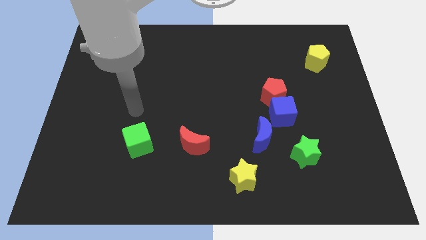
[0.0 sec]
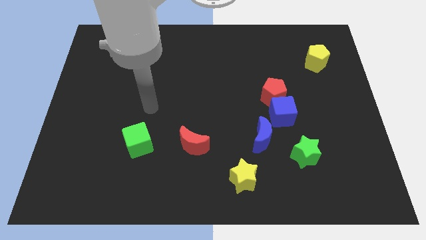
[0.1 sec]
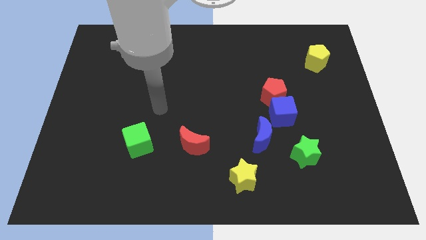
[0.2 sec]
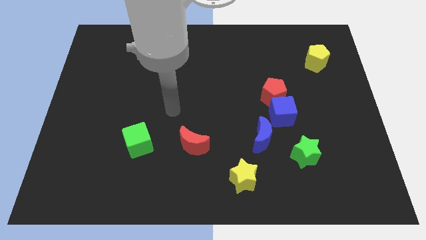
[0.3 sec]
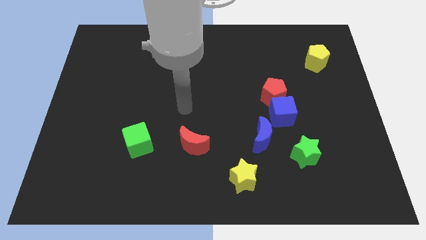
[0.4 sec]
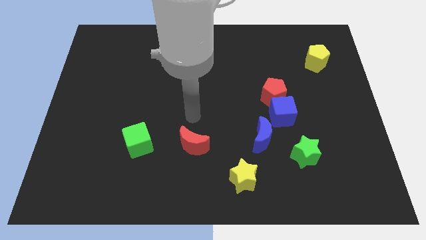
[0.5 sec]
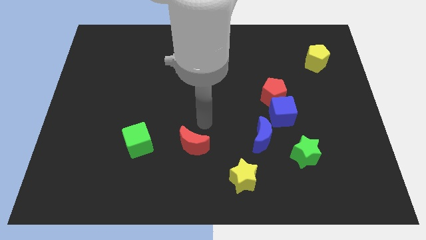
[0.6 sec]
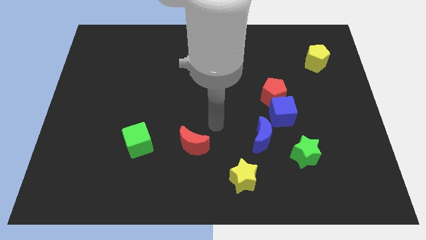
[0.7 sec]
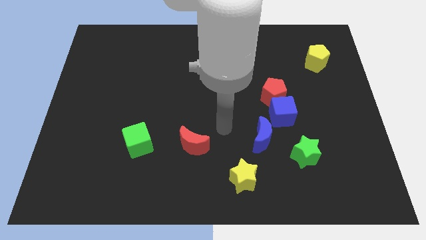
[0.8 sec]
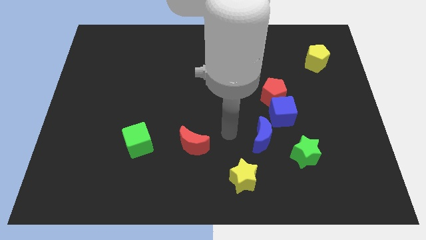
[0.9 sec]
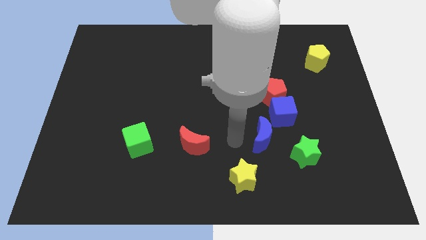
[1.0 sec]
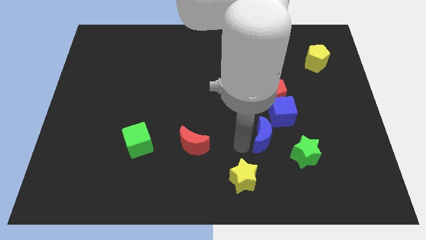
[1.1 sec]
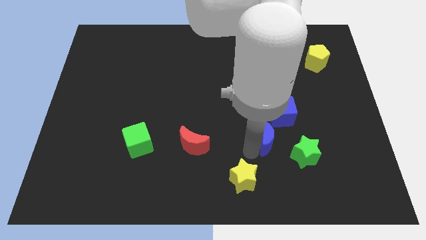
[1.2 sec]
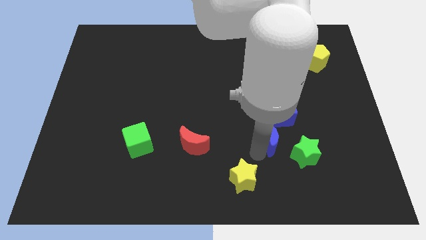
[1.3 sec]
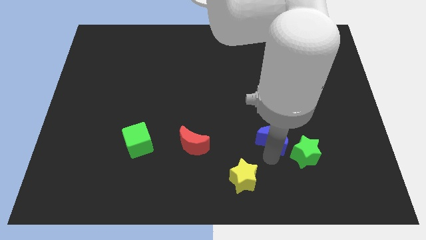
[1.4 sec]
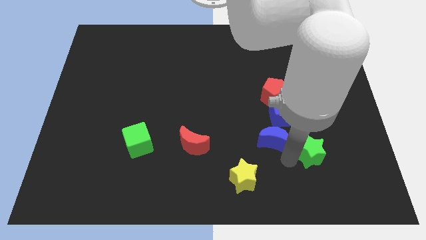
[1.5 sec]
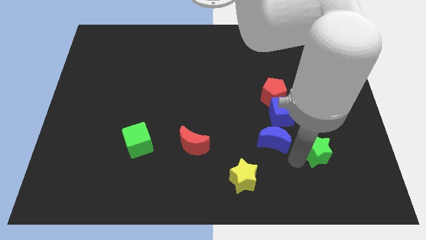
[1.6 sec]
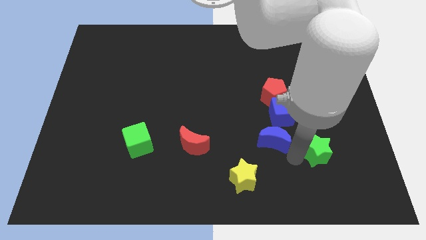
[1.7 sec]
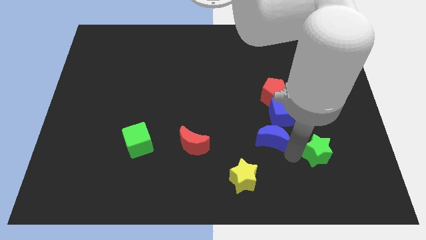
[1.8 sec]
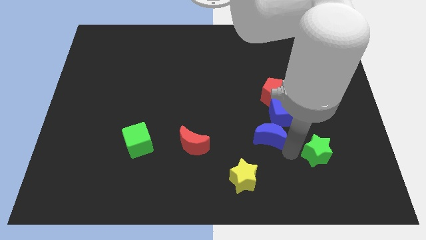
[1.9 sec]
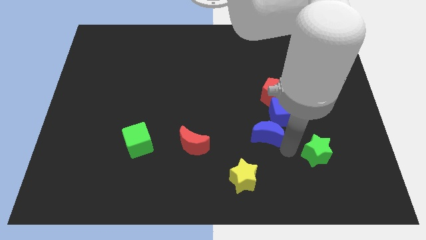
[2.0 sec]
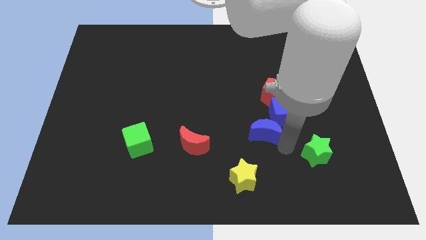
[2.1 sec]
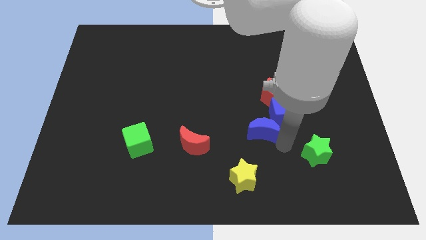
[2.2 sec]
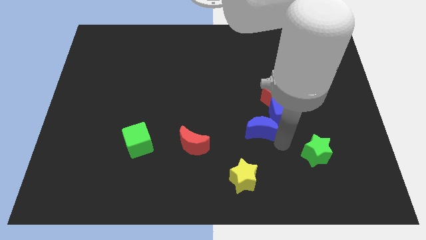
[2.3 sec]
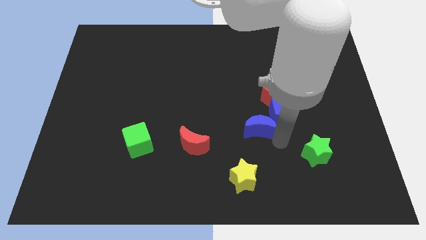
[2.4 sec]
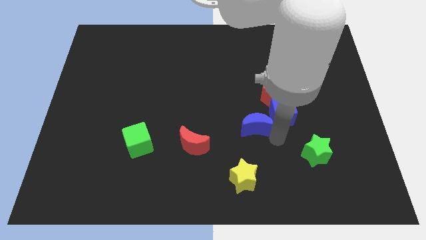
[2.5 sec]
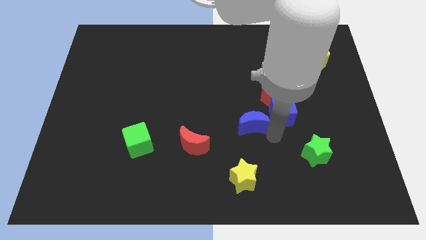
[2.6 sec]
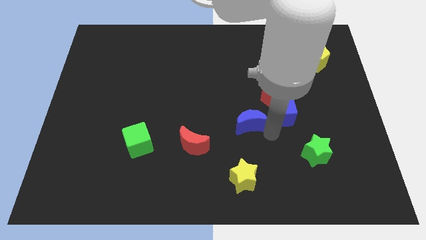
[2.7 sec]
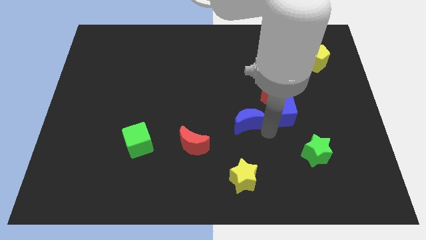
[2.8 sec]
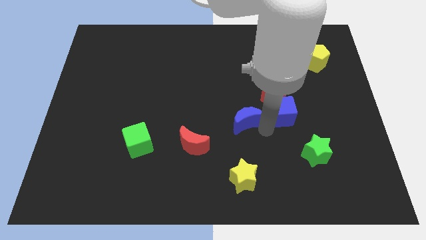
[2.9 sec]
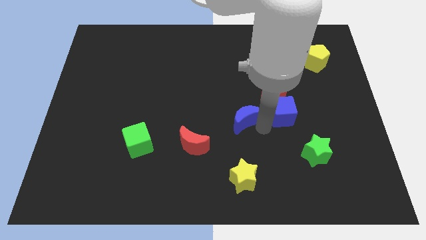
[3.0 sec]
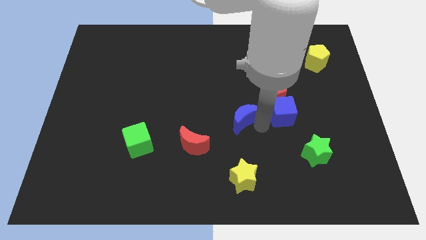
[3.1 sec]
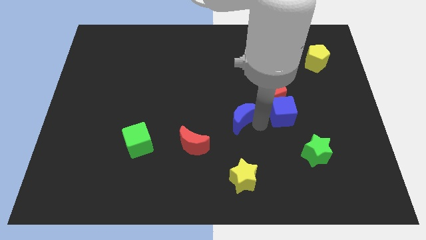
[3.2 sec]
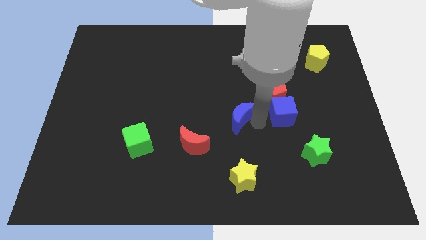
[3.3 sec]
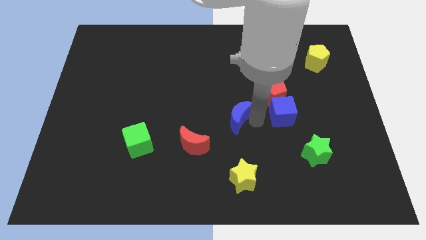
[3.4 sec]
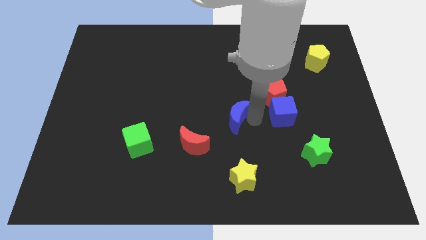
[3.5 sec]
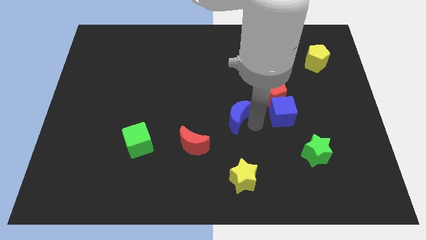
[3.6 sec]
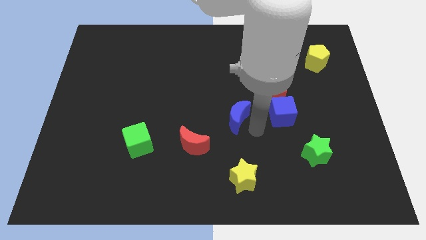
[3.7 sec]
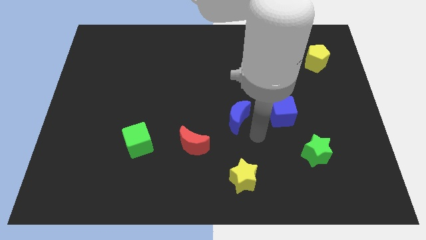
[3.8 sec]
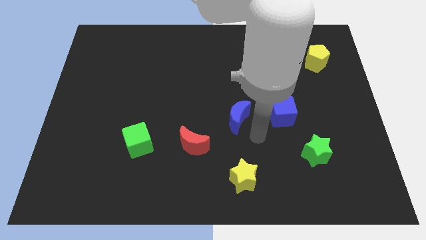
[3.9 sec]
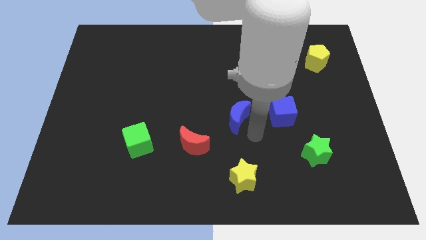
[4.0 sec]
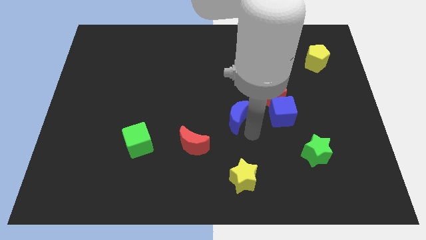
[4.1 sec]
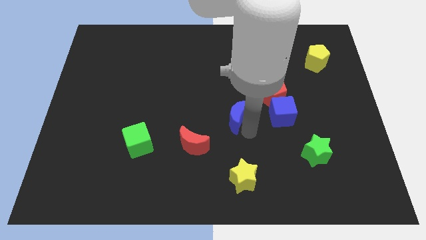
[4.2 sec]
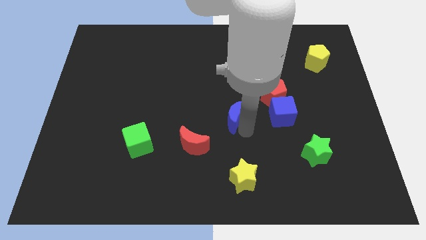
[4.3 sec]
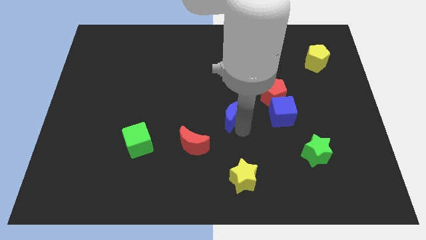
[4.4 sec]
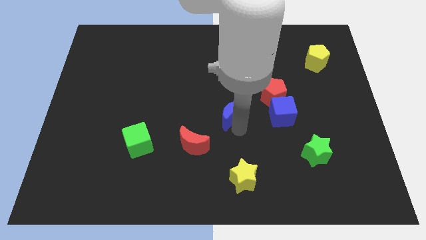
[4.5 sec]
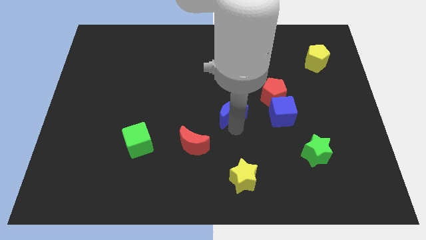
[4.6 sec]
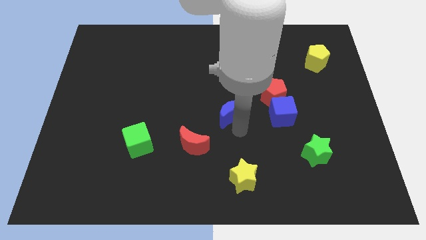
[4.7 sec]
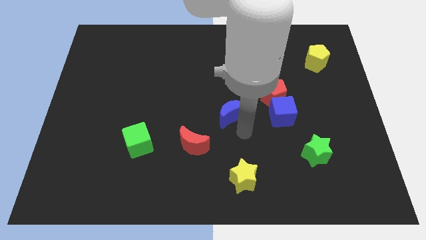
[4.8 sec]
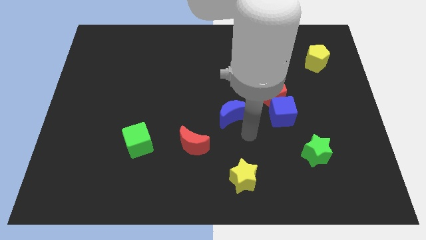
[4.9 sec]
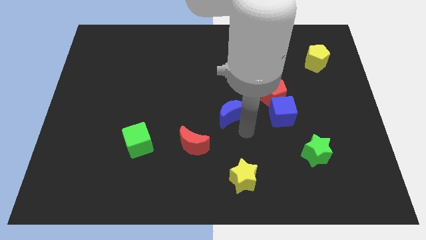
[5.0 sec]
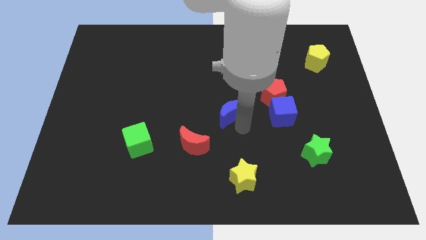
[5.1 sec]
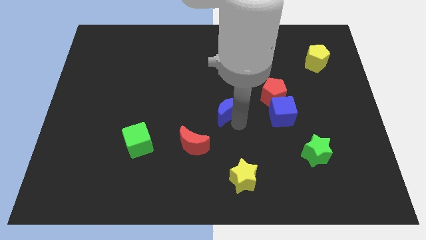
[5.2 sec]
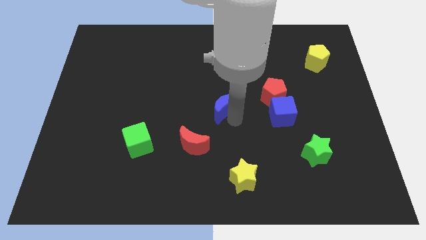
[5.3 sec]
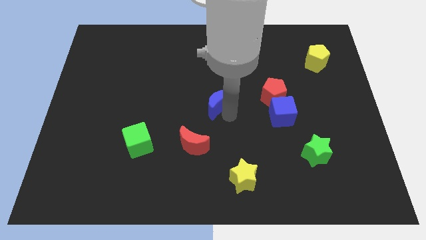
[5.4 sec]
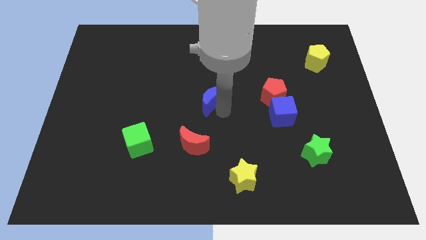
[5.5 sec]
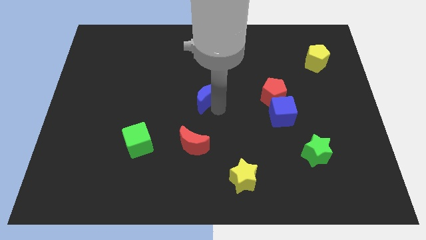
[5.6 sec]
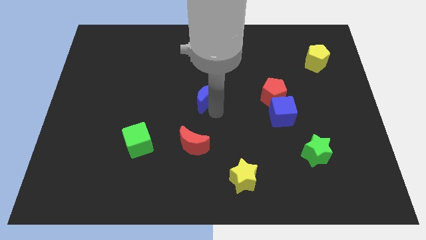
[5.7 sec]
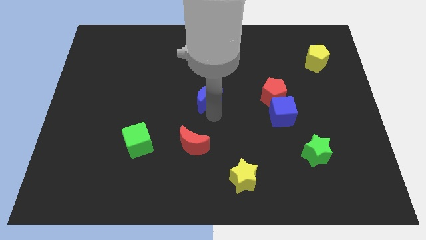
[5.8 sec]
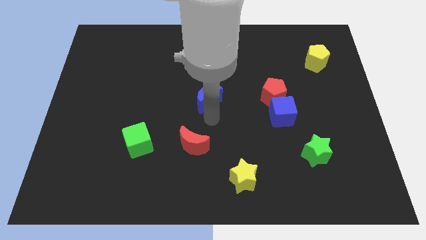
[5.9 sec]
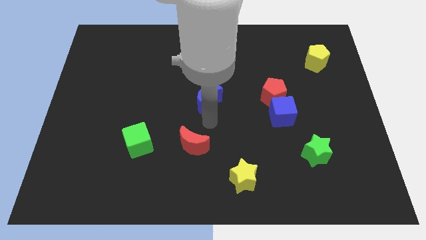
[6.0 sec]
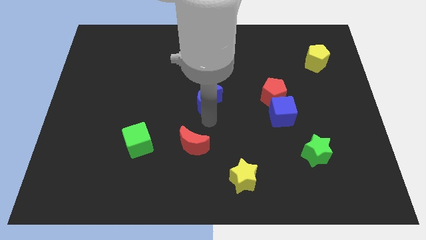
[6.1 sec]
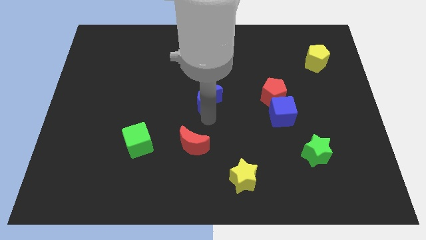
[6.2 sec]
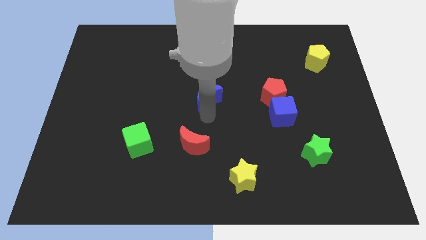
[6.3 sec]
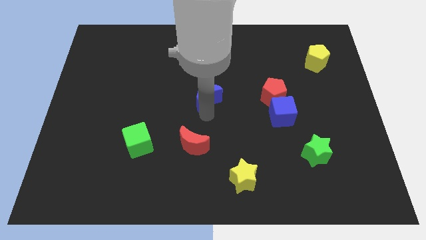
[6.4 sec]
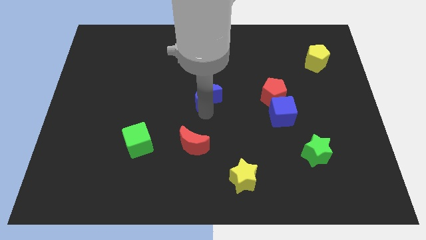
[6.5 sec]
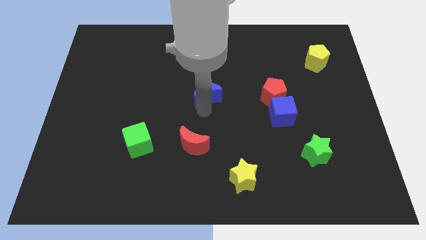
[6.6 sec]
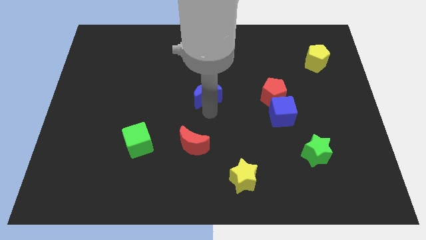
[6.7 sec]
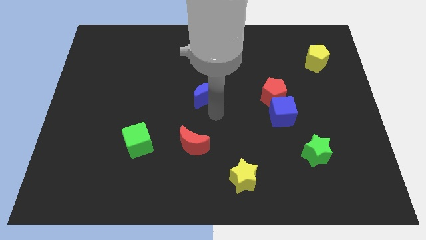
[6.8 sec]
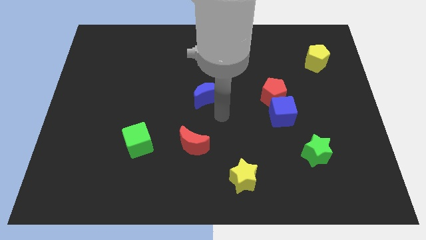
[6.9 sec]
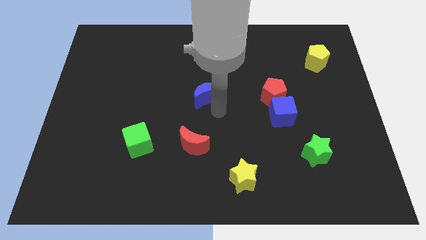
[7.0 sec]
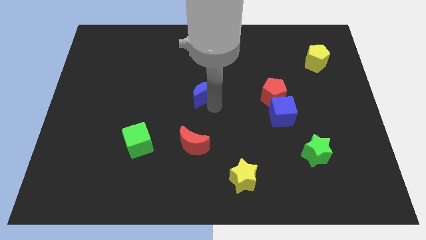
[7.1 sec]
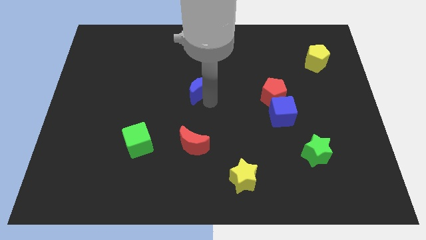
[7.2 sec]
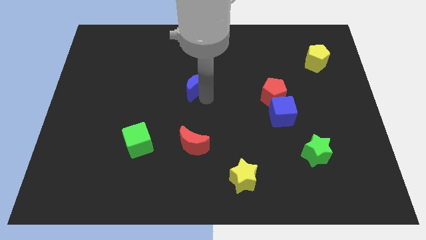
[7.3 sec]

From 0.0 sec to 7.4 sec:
move the blue moon upwards and left

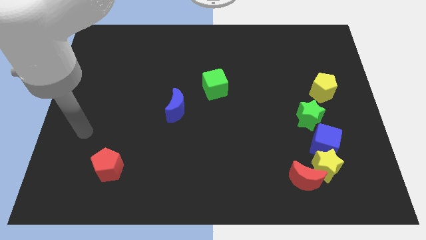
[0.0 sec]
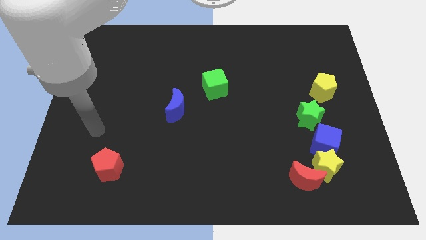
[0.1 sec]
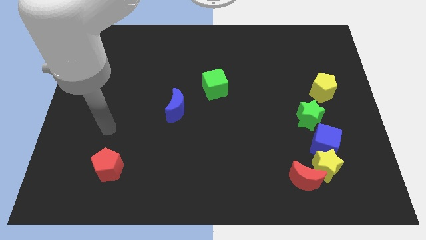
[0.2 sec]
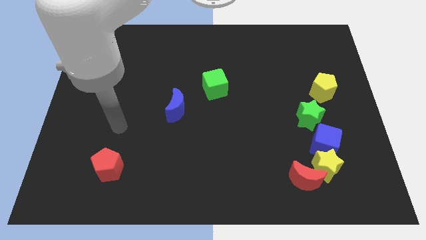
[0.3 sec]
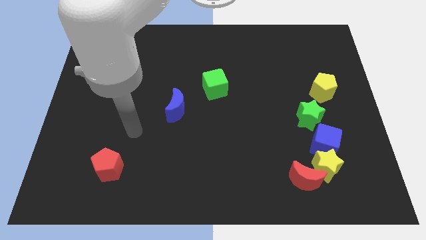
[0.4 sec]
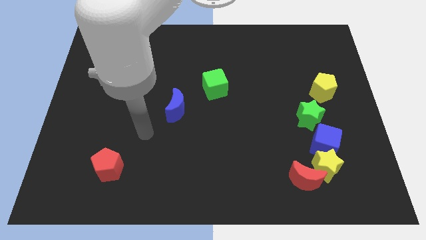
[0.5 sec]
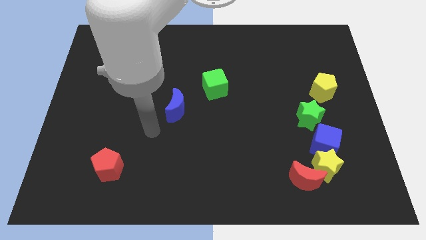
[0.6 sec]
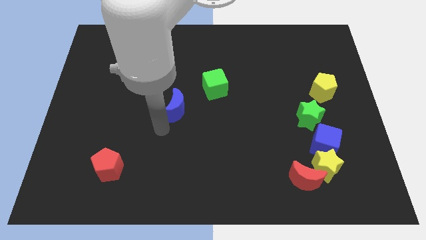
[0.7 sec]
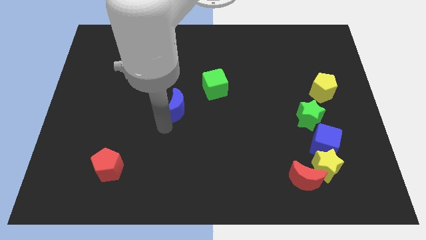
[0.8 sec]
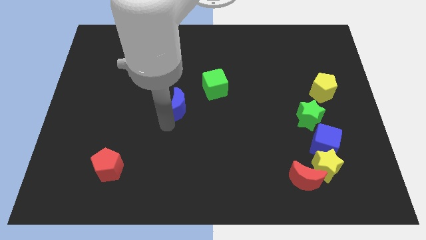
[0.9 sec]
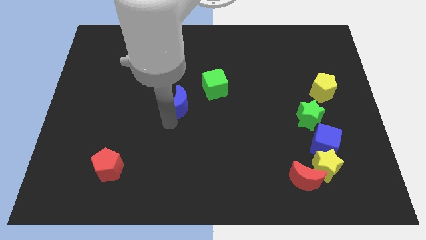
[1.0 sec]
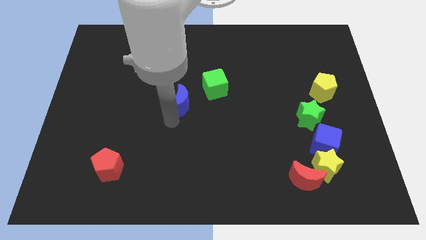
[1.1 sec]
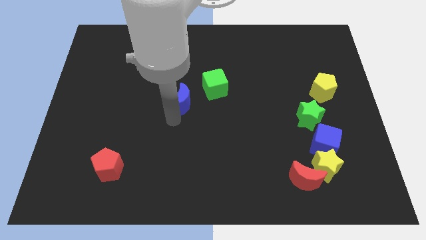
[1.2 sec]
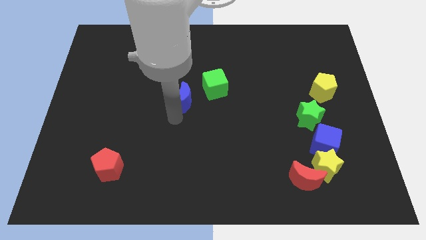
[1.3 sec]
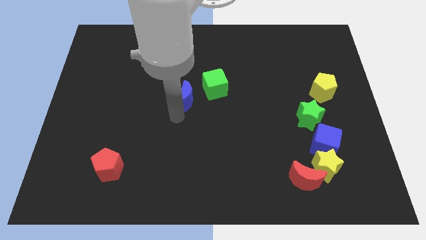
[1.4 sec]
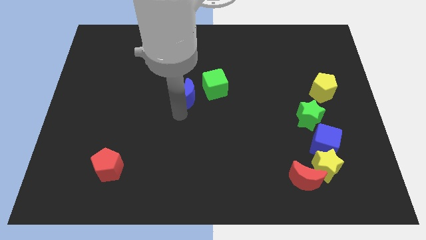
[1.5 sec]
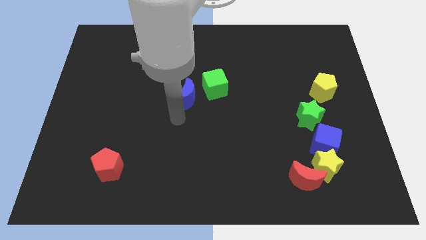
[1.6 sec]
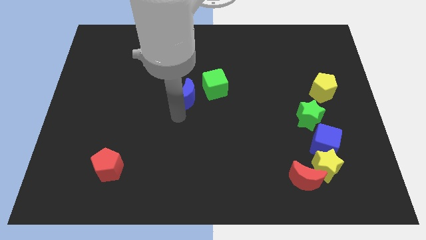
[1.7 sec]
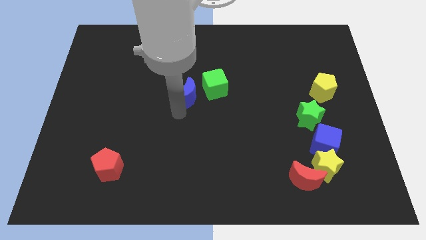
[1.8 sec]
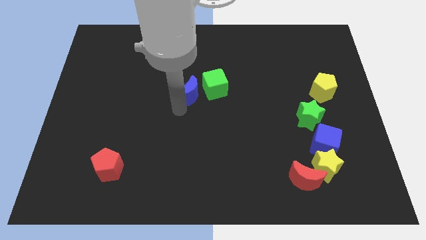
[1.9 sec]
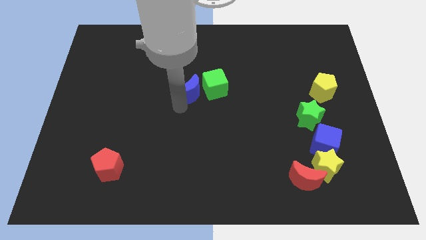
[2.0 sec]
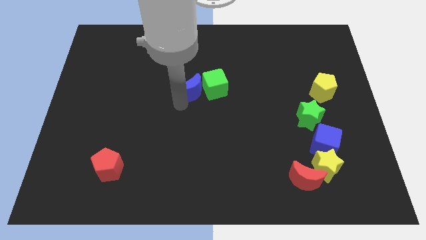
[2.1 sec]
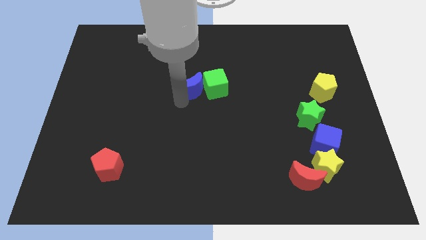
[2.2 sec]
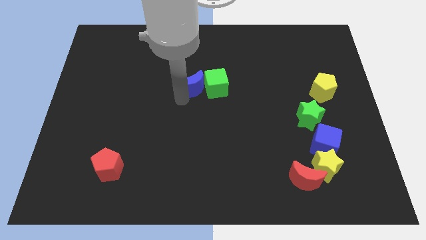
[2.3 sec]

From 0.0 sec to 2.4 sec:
push the blue moon a little upwards and right diagonally
